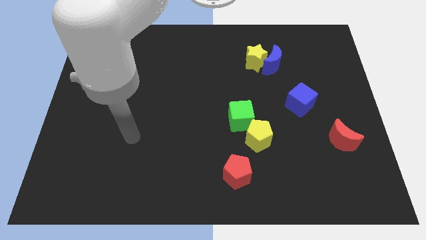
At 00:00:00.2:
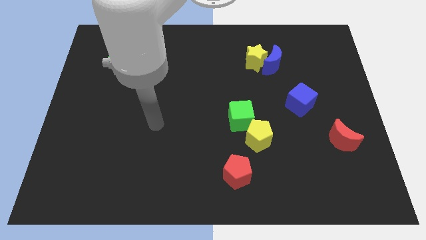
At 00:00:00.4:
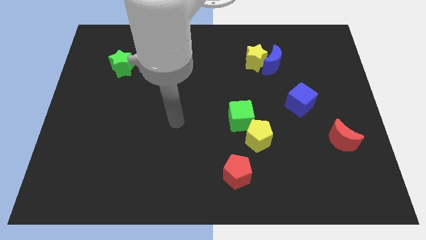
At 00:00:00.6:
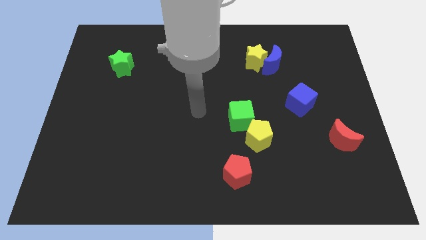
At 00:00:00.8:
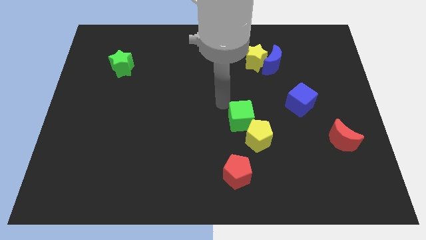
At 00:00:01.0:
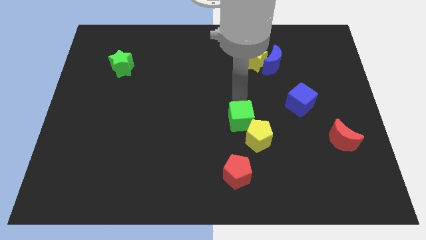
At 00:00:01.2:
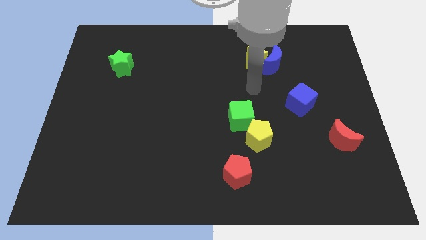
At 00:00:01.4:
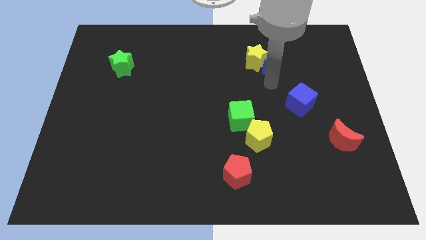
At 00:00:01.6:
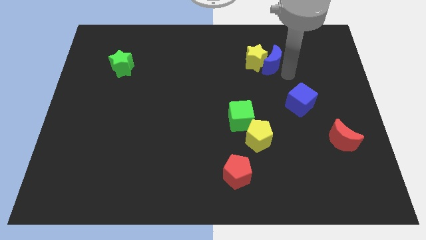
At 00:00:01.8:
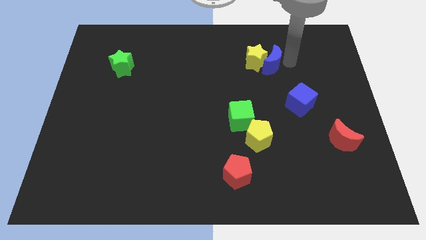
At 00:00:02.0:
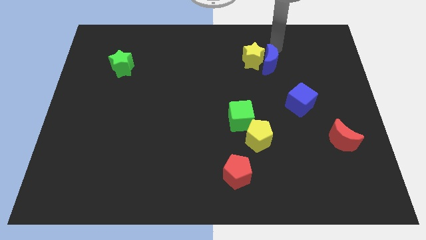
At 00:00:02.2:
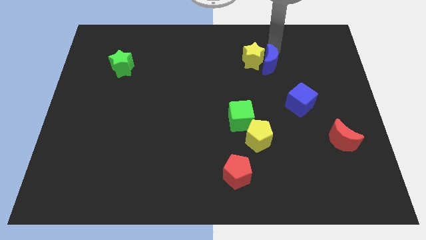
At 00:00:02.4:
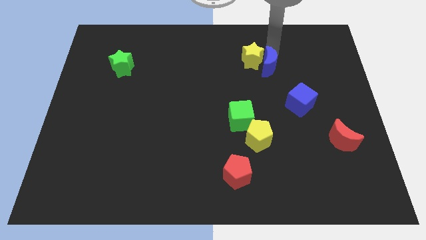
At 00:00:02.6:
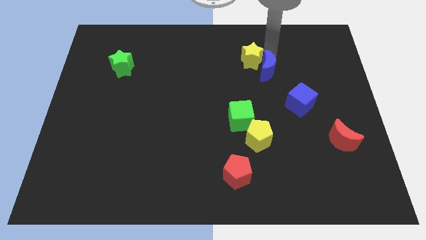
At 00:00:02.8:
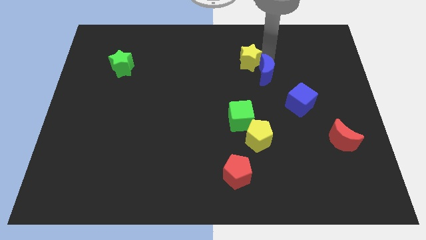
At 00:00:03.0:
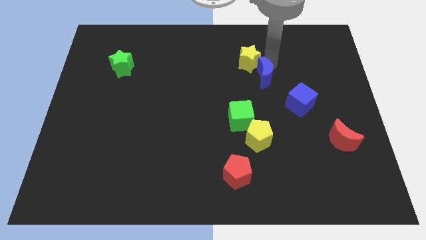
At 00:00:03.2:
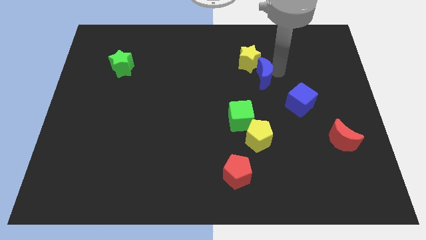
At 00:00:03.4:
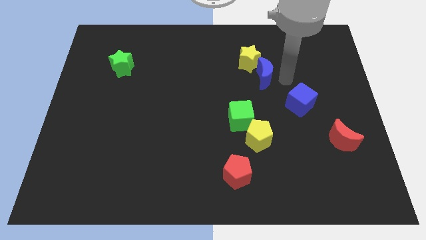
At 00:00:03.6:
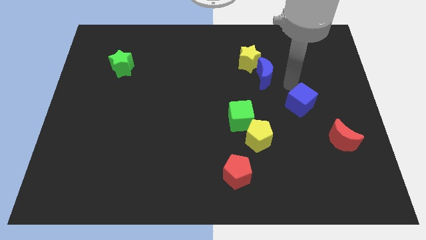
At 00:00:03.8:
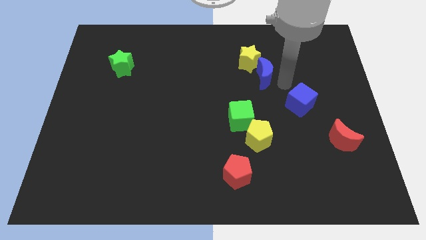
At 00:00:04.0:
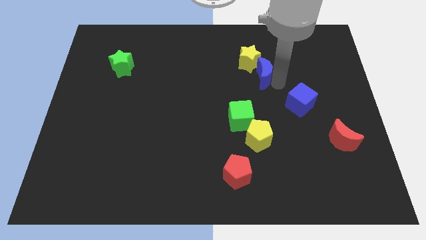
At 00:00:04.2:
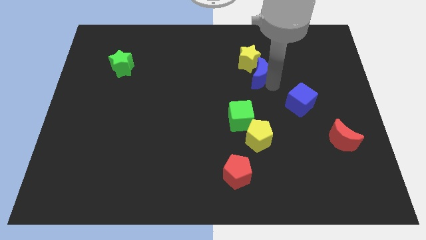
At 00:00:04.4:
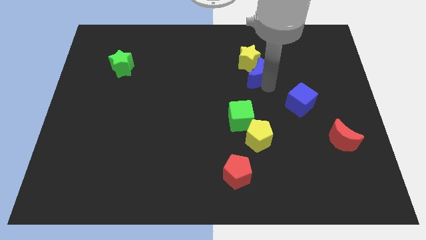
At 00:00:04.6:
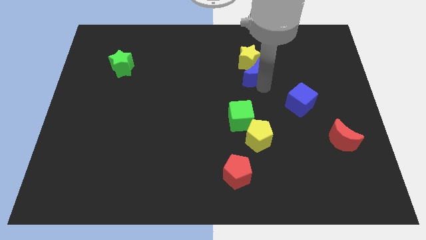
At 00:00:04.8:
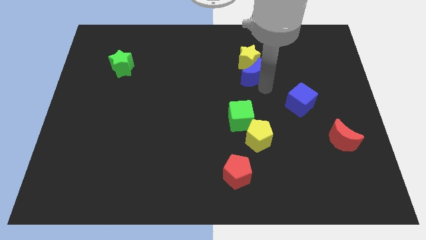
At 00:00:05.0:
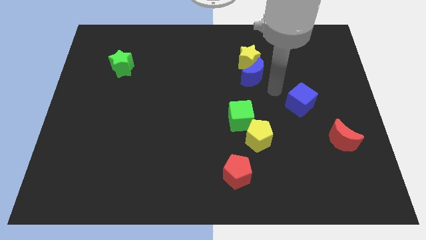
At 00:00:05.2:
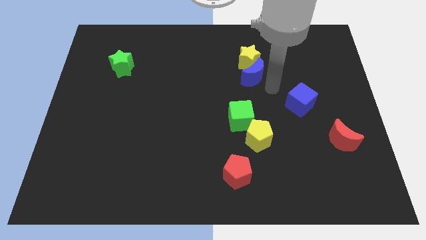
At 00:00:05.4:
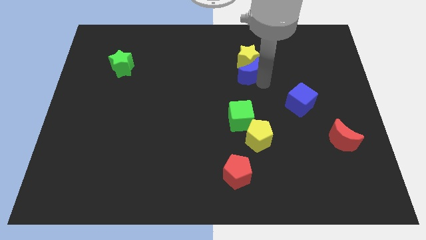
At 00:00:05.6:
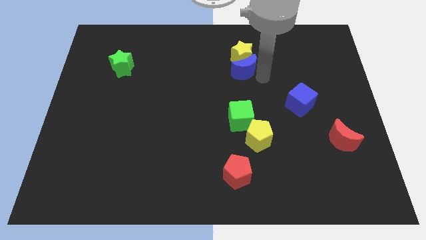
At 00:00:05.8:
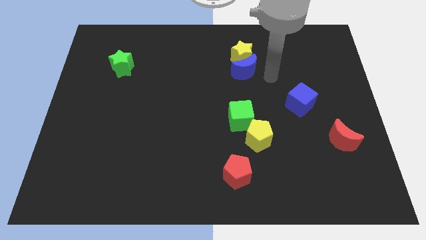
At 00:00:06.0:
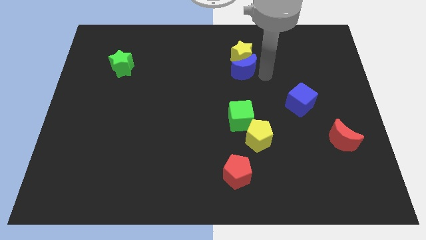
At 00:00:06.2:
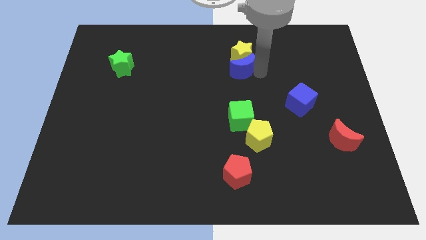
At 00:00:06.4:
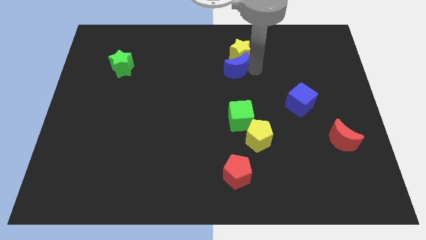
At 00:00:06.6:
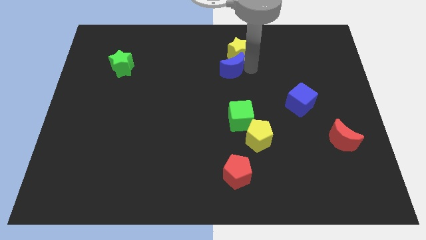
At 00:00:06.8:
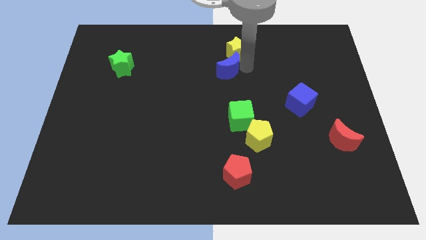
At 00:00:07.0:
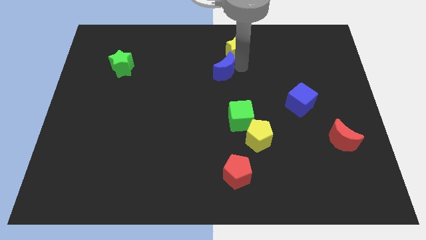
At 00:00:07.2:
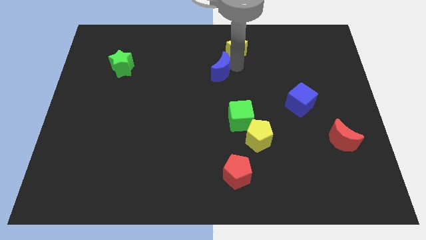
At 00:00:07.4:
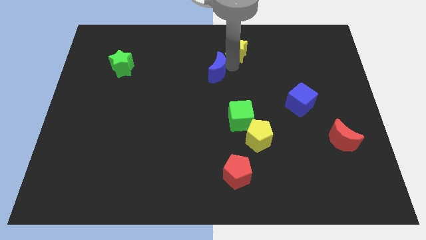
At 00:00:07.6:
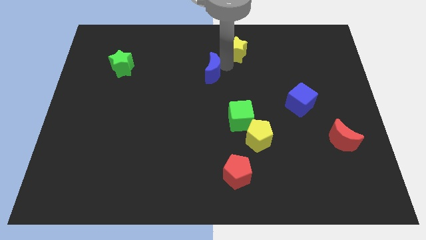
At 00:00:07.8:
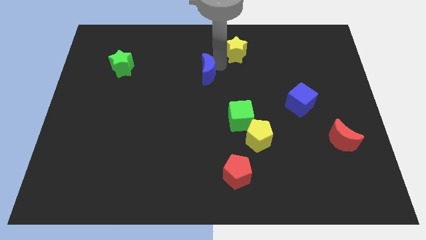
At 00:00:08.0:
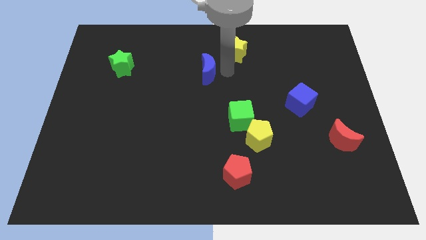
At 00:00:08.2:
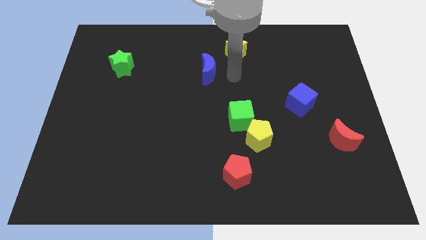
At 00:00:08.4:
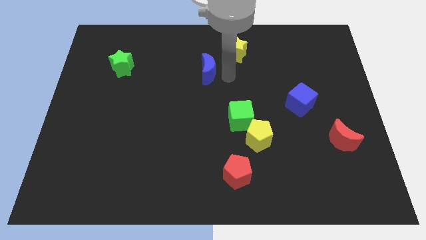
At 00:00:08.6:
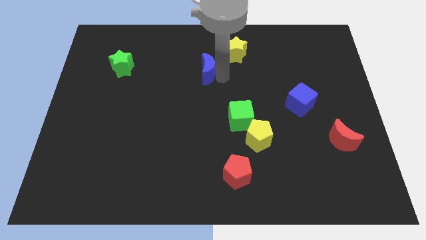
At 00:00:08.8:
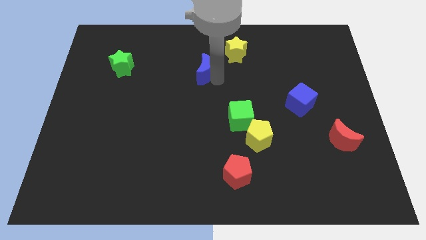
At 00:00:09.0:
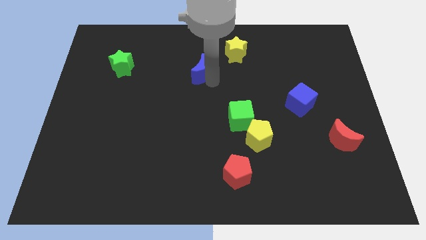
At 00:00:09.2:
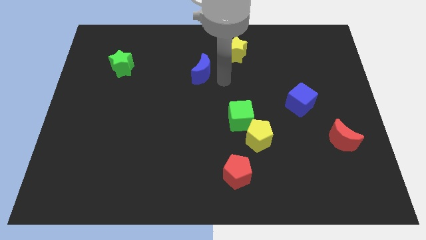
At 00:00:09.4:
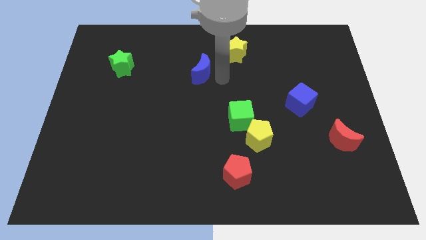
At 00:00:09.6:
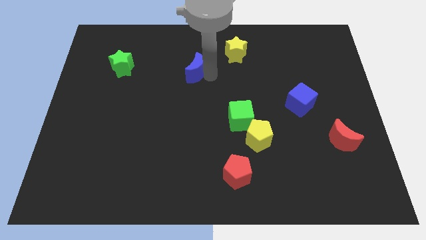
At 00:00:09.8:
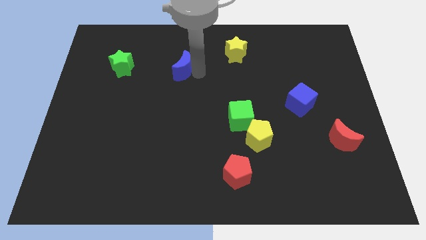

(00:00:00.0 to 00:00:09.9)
slide the blue moon to the right side of the green star

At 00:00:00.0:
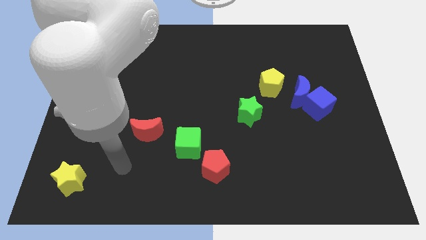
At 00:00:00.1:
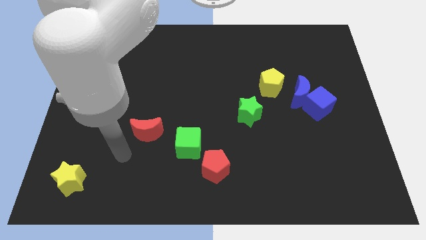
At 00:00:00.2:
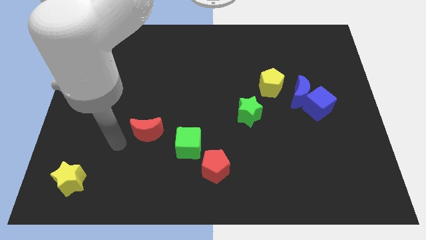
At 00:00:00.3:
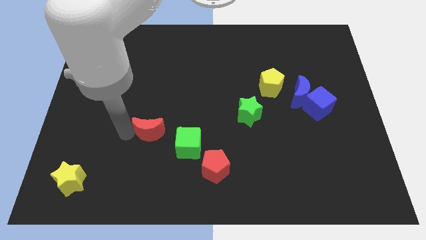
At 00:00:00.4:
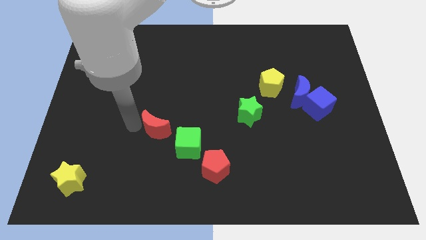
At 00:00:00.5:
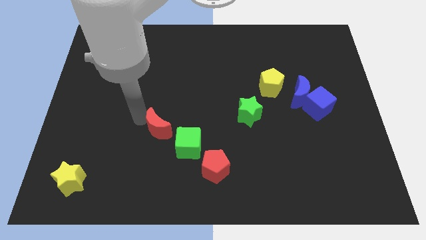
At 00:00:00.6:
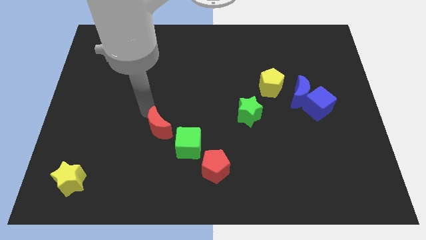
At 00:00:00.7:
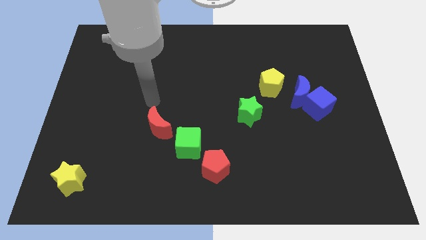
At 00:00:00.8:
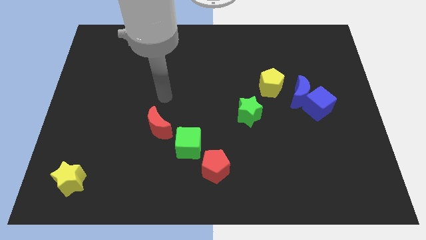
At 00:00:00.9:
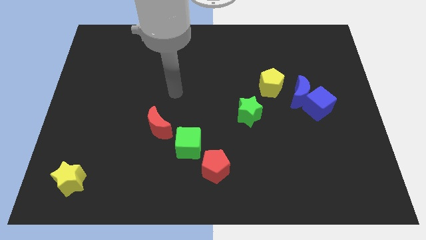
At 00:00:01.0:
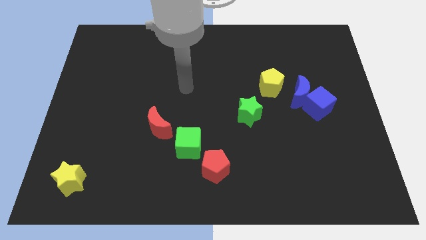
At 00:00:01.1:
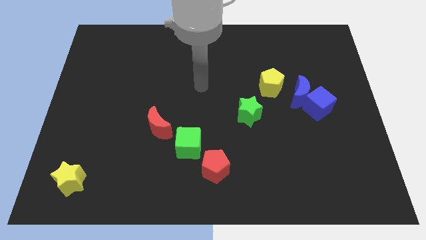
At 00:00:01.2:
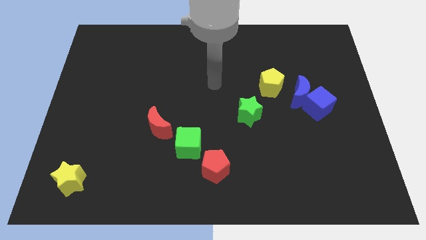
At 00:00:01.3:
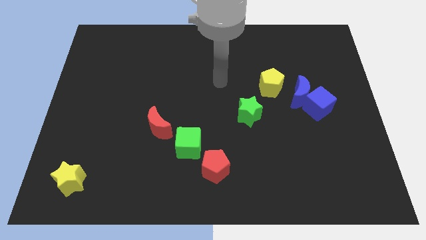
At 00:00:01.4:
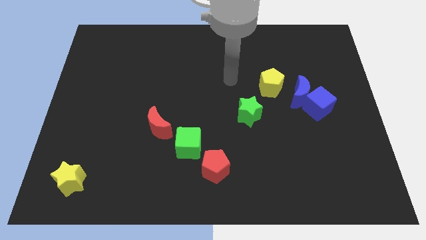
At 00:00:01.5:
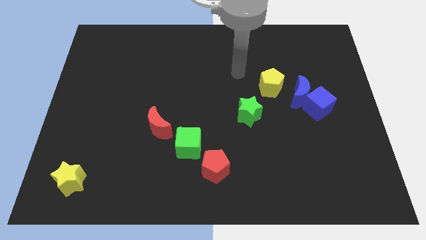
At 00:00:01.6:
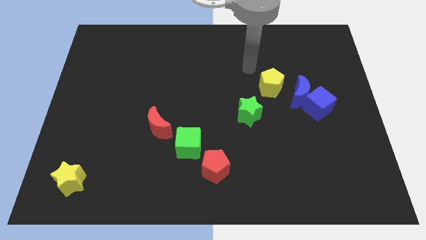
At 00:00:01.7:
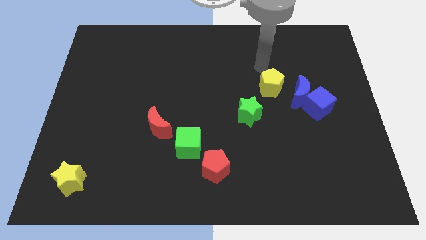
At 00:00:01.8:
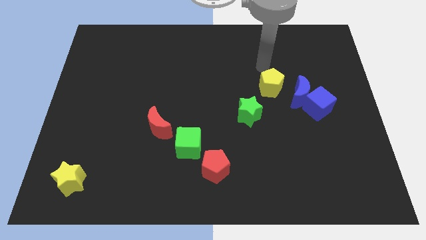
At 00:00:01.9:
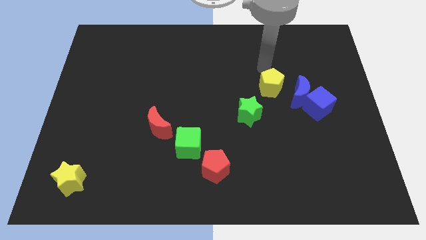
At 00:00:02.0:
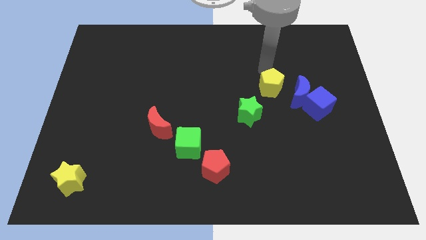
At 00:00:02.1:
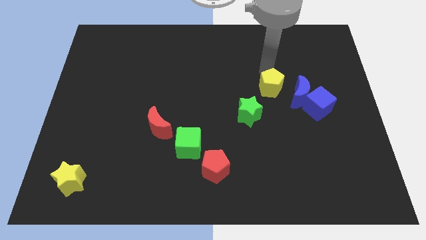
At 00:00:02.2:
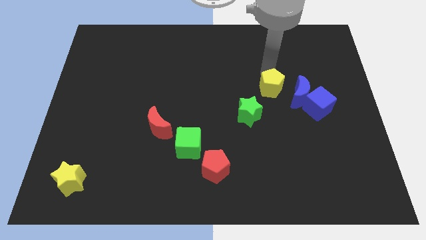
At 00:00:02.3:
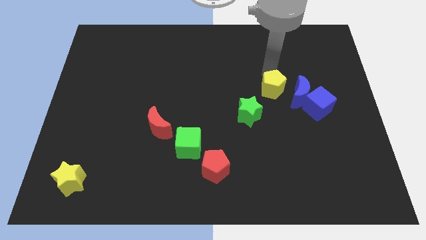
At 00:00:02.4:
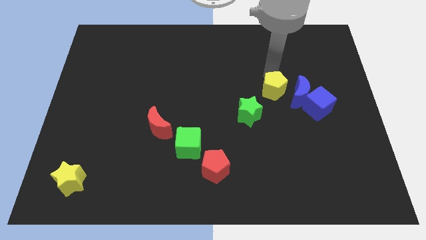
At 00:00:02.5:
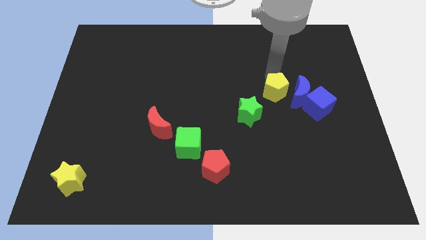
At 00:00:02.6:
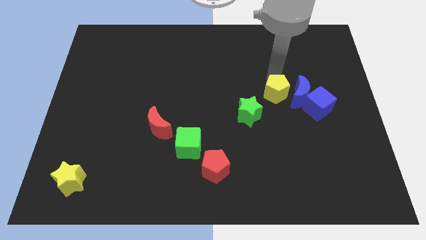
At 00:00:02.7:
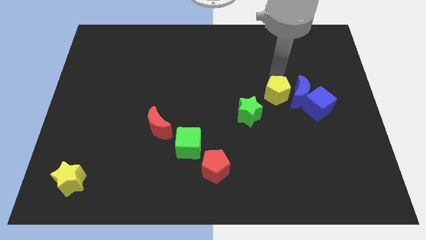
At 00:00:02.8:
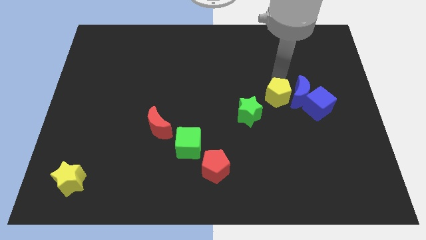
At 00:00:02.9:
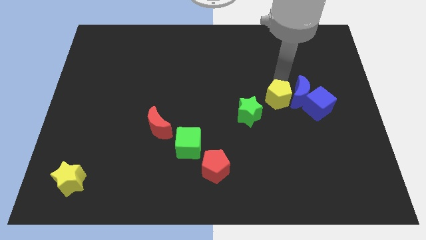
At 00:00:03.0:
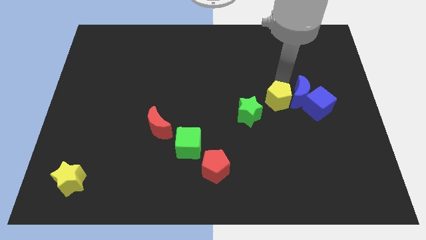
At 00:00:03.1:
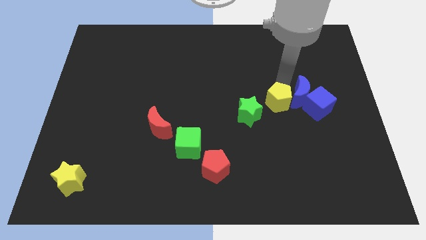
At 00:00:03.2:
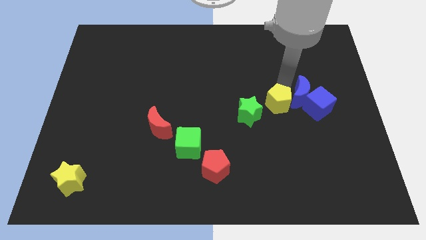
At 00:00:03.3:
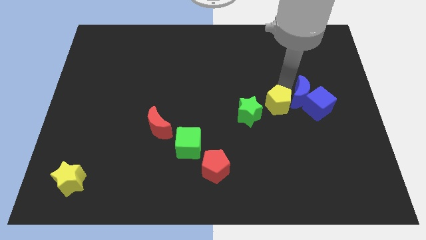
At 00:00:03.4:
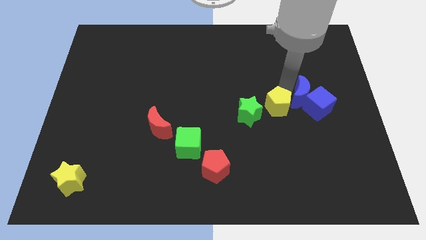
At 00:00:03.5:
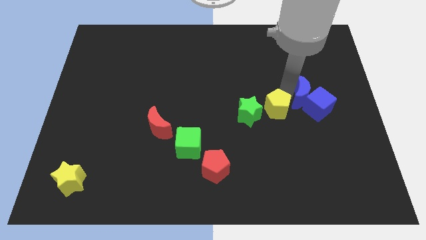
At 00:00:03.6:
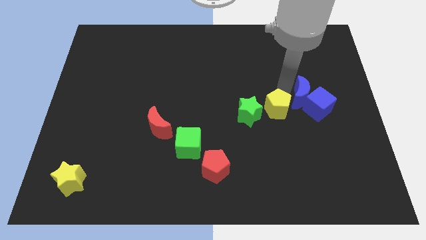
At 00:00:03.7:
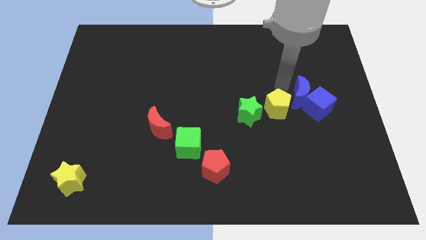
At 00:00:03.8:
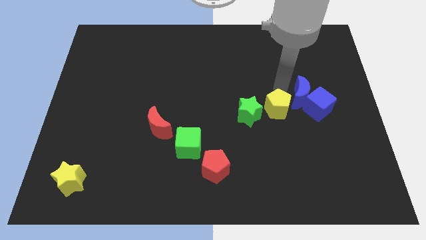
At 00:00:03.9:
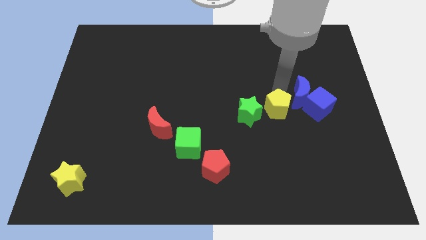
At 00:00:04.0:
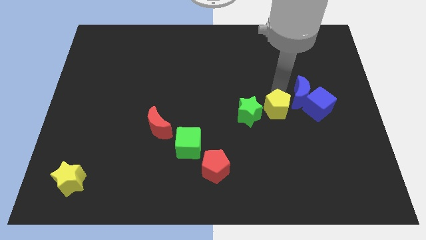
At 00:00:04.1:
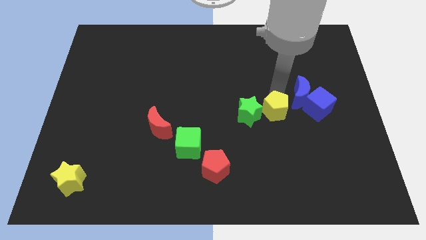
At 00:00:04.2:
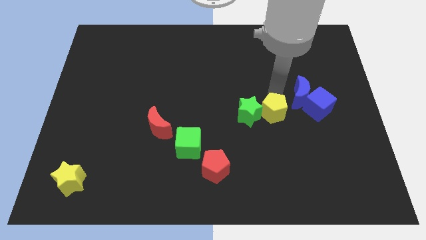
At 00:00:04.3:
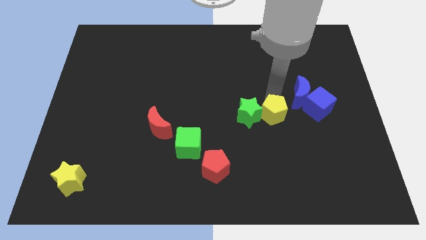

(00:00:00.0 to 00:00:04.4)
put the yellow pentagon diagonally down and to the right of the green star
